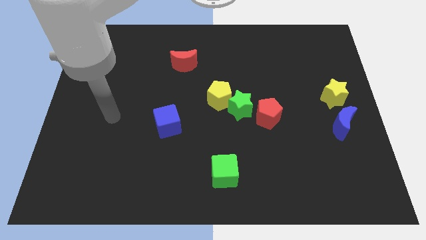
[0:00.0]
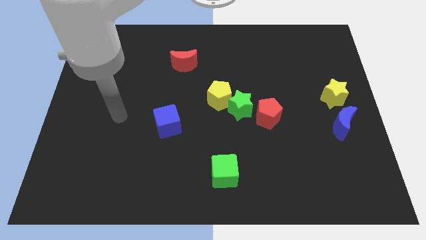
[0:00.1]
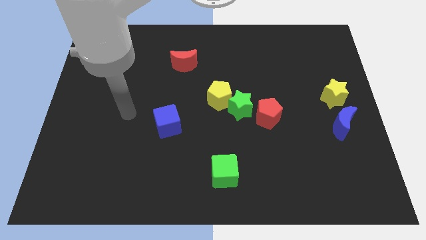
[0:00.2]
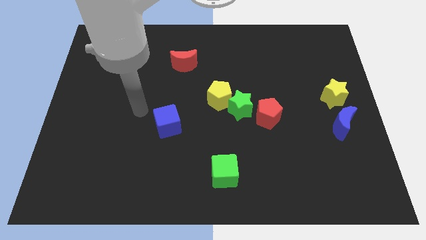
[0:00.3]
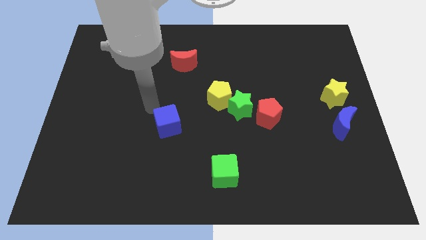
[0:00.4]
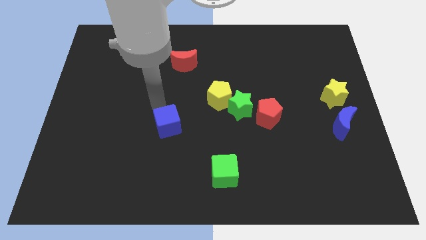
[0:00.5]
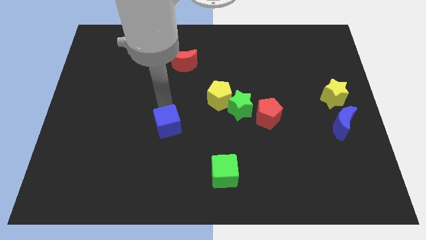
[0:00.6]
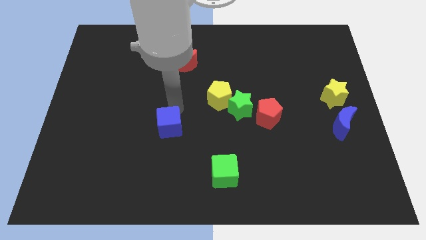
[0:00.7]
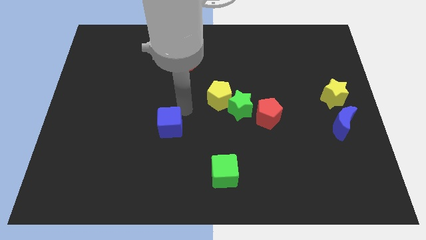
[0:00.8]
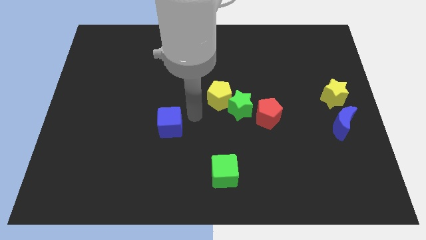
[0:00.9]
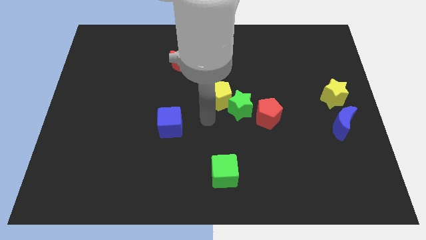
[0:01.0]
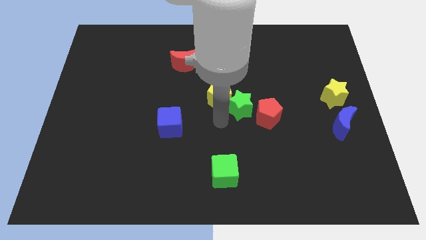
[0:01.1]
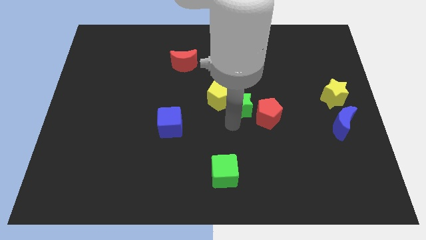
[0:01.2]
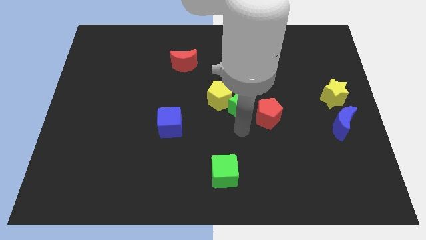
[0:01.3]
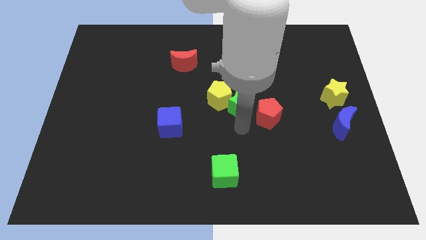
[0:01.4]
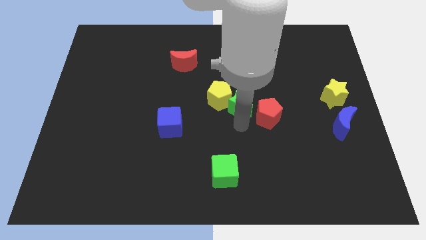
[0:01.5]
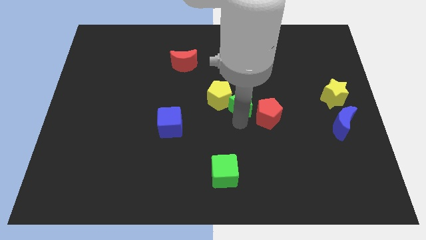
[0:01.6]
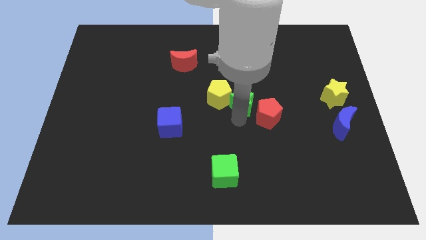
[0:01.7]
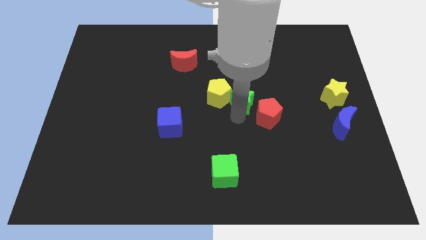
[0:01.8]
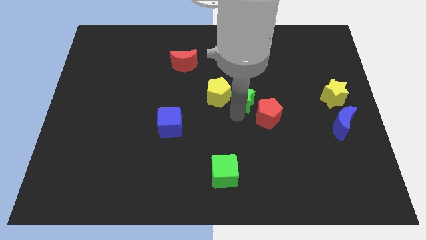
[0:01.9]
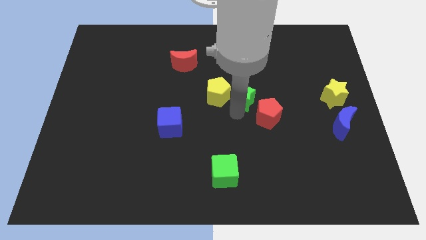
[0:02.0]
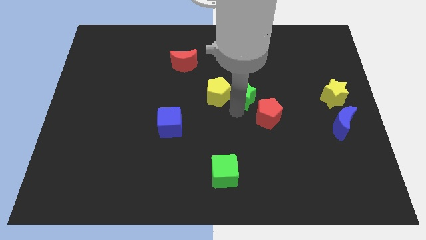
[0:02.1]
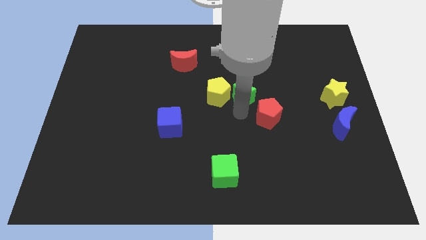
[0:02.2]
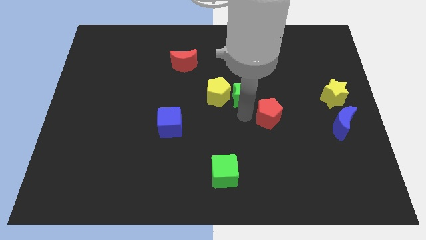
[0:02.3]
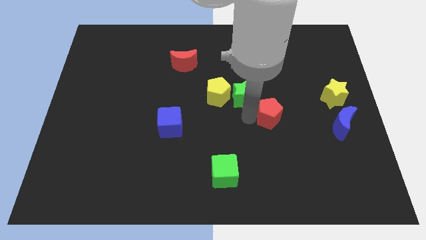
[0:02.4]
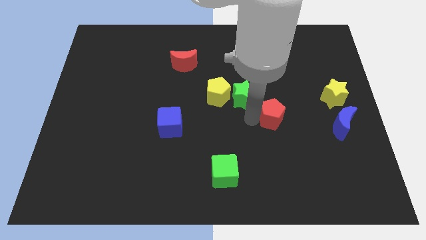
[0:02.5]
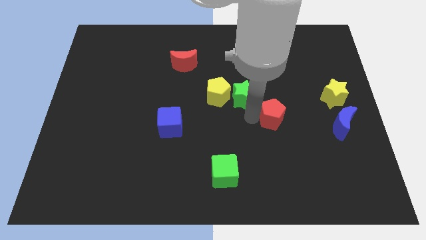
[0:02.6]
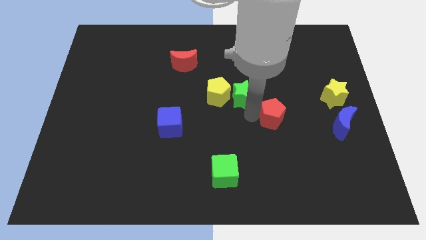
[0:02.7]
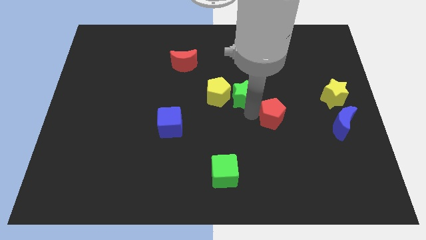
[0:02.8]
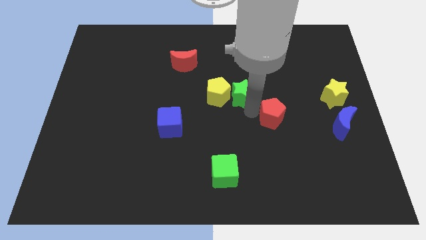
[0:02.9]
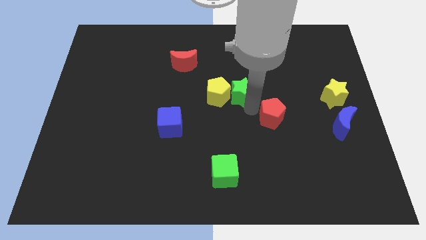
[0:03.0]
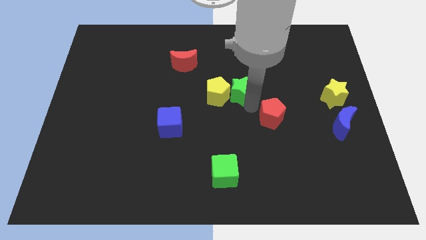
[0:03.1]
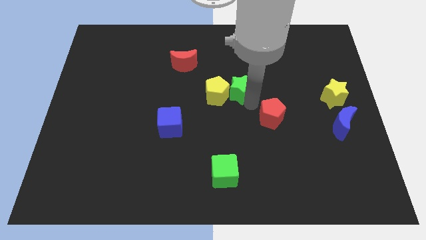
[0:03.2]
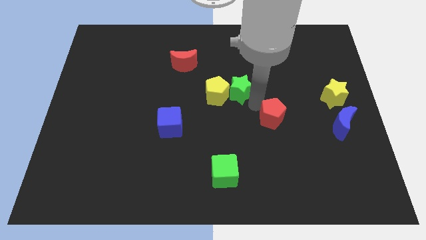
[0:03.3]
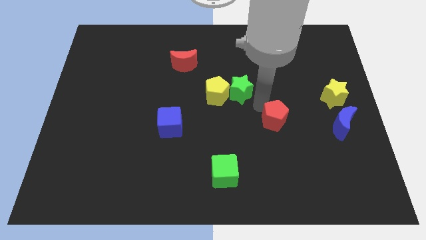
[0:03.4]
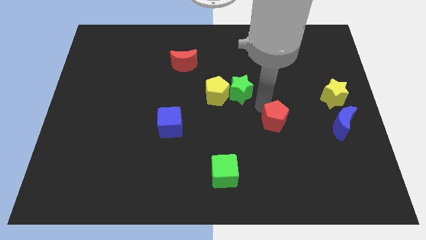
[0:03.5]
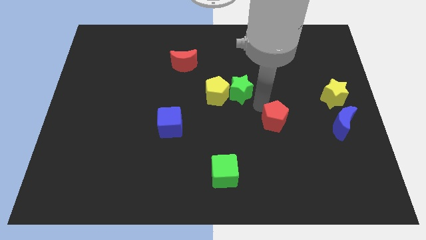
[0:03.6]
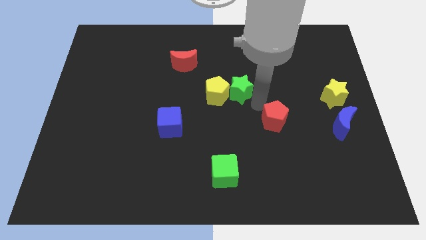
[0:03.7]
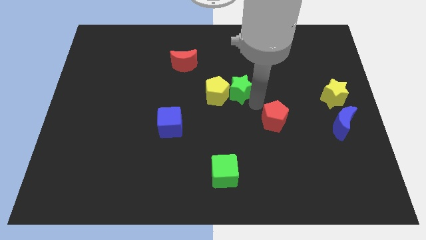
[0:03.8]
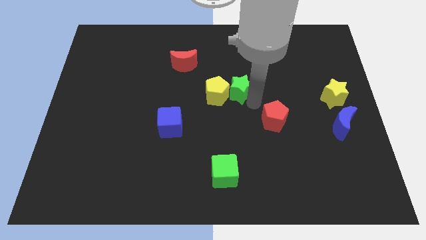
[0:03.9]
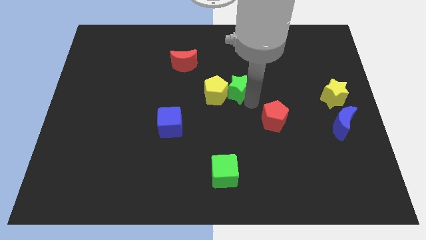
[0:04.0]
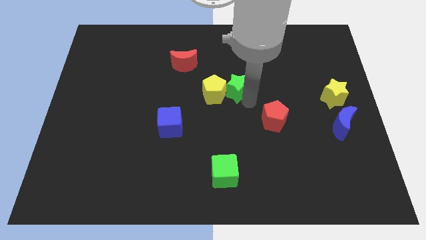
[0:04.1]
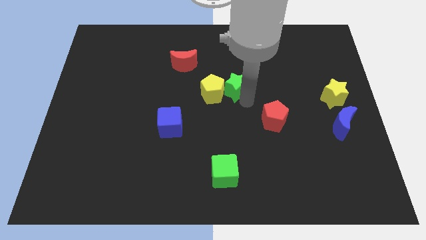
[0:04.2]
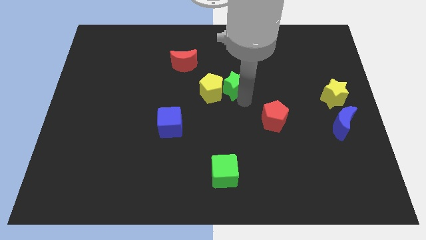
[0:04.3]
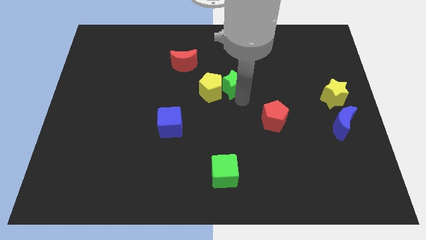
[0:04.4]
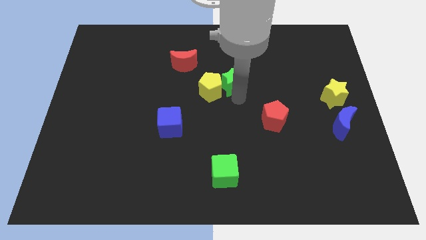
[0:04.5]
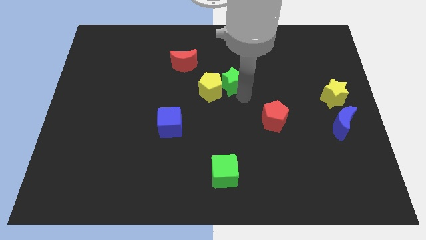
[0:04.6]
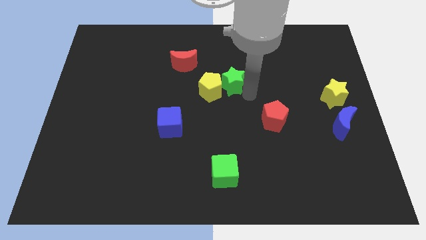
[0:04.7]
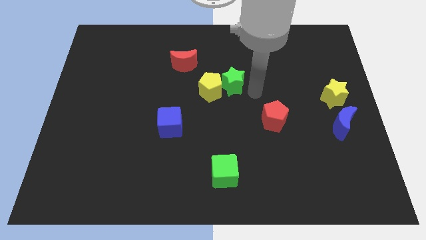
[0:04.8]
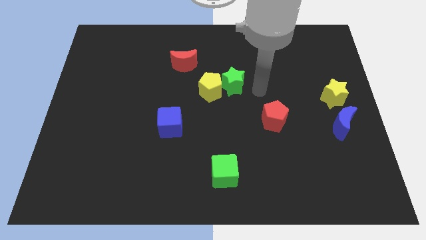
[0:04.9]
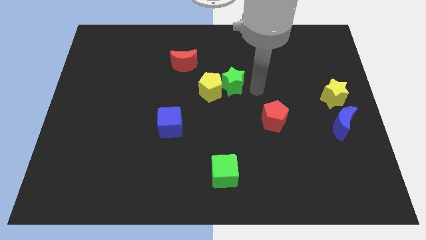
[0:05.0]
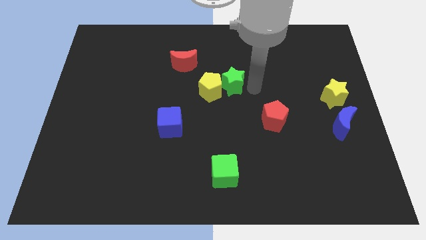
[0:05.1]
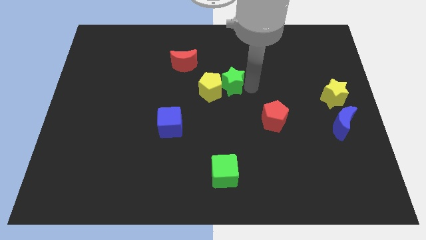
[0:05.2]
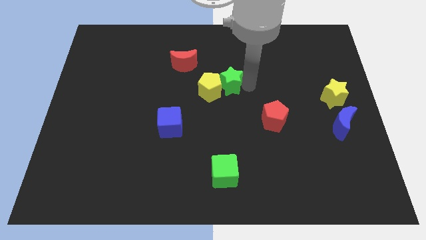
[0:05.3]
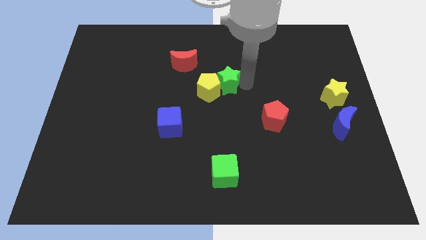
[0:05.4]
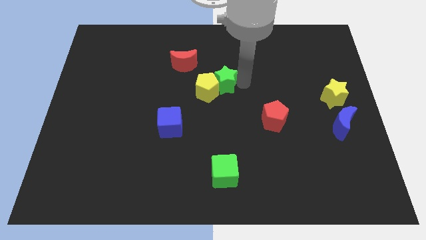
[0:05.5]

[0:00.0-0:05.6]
put the green star diagonally down and to the right of the red moon

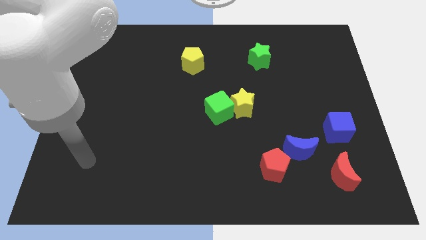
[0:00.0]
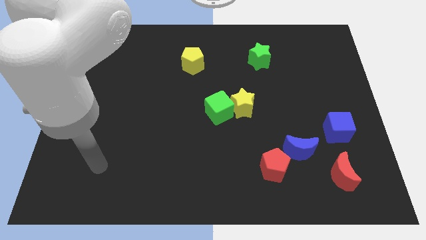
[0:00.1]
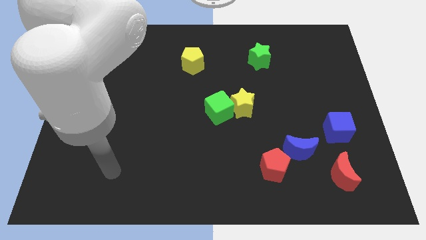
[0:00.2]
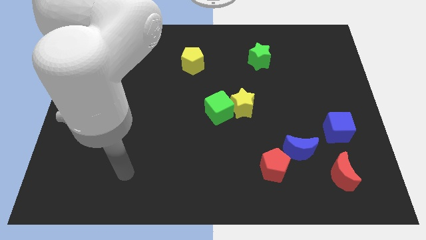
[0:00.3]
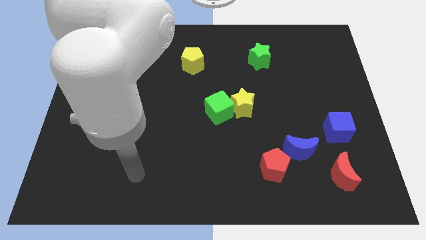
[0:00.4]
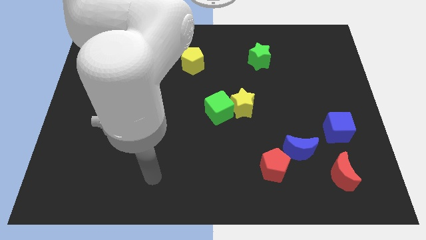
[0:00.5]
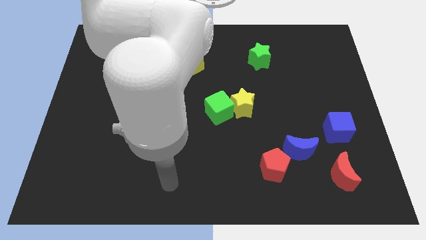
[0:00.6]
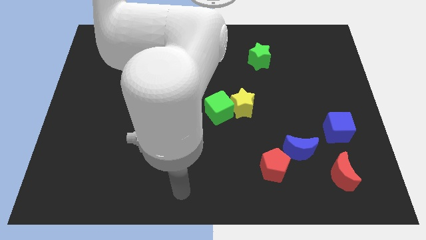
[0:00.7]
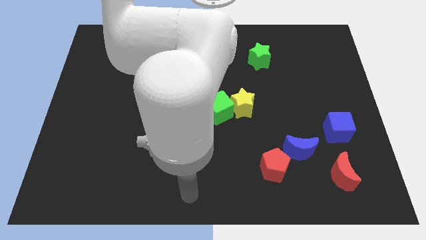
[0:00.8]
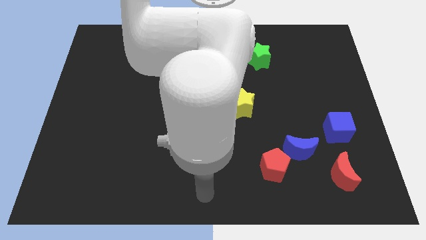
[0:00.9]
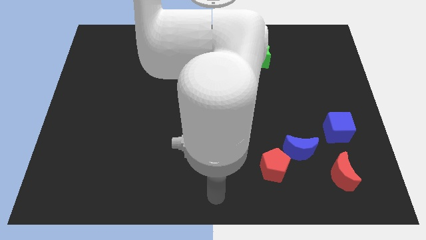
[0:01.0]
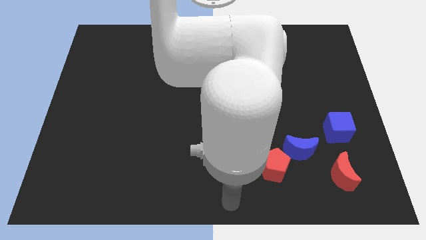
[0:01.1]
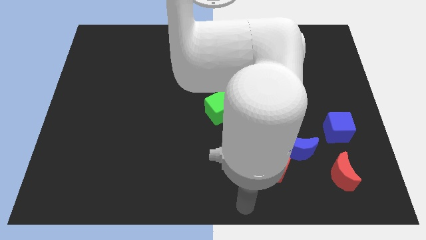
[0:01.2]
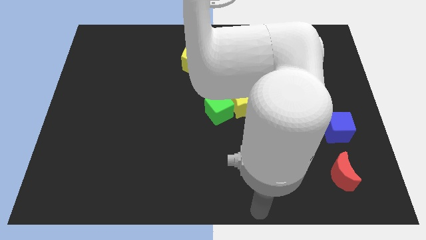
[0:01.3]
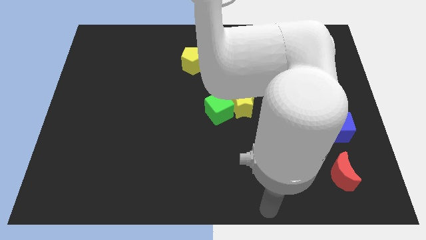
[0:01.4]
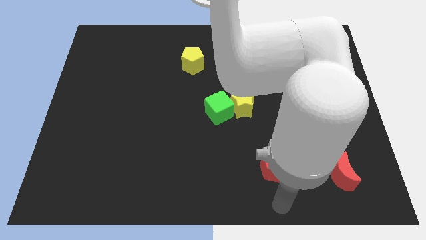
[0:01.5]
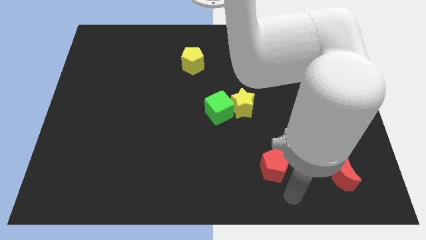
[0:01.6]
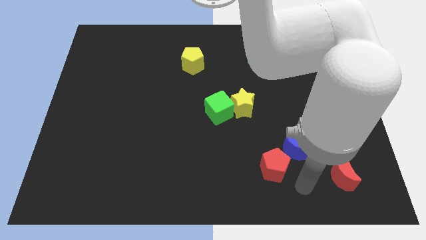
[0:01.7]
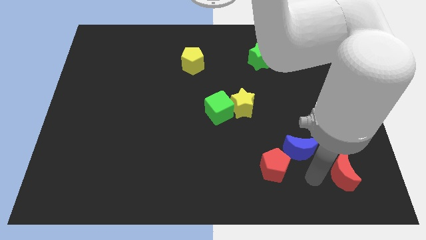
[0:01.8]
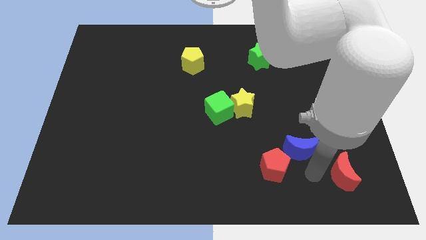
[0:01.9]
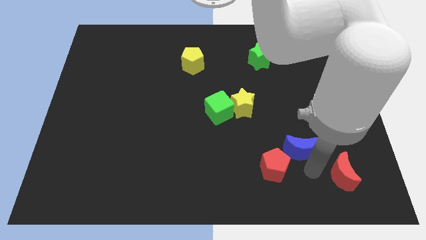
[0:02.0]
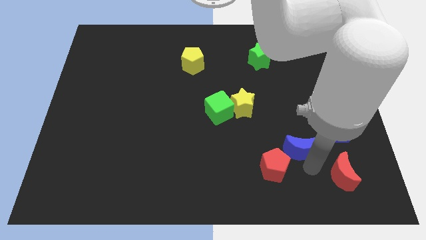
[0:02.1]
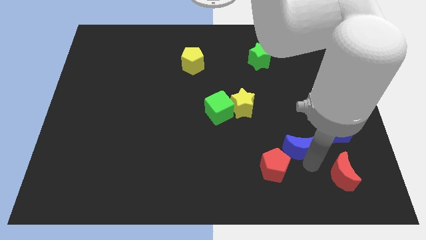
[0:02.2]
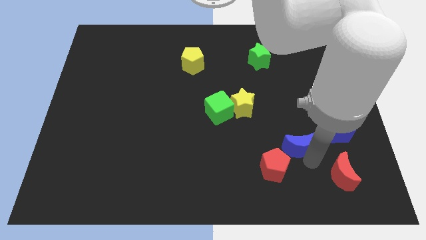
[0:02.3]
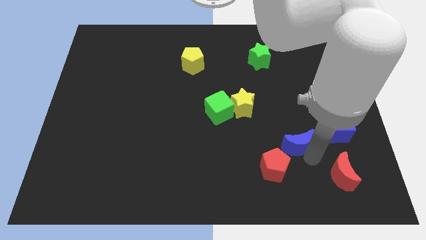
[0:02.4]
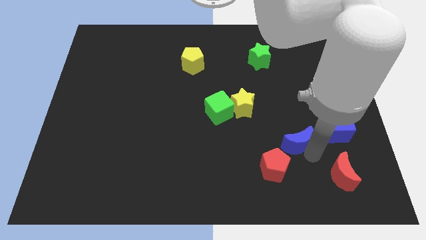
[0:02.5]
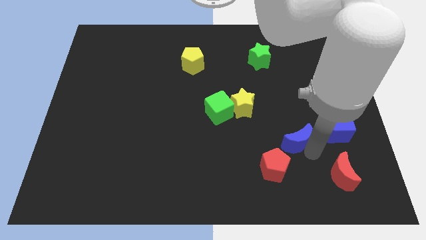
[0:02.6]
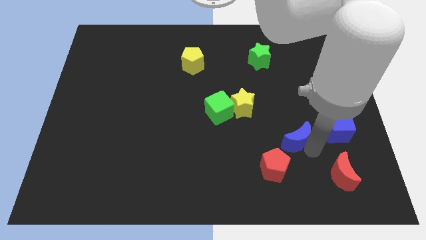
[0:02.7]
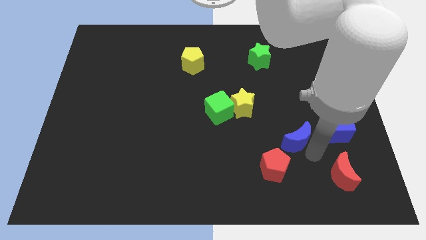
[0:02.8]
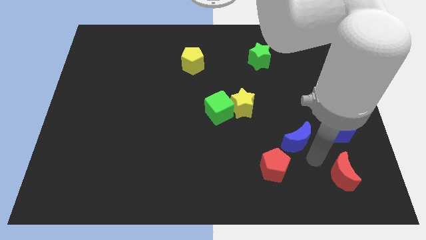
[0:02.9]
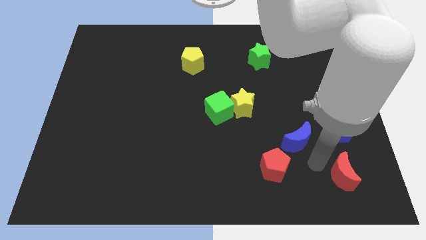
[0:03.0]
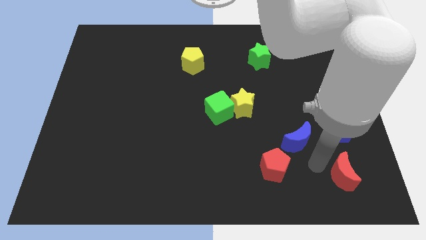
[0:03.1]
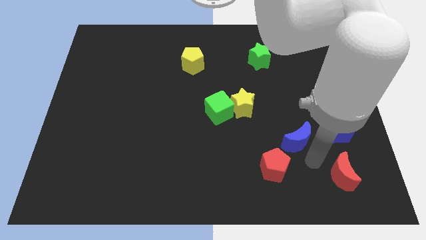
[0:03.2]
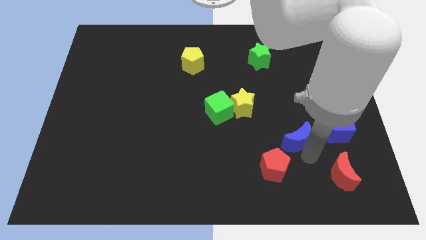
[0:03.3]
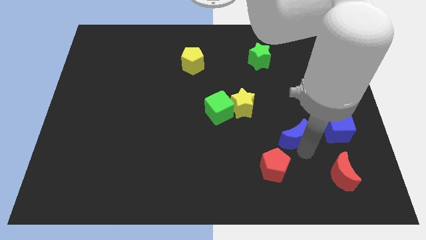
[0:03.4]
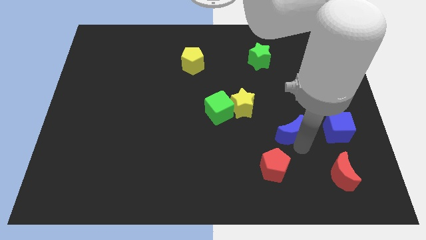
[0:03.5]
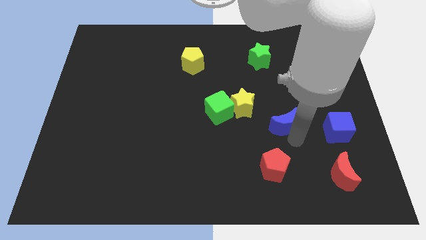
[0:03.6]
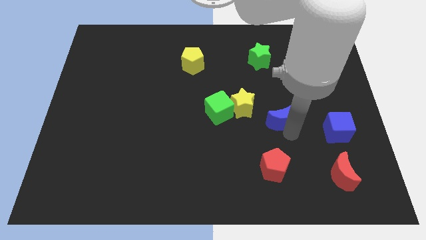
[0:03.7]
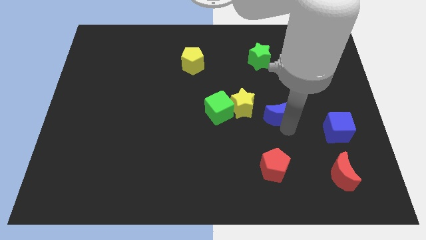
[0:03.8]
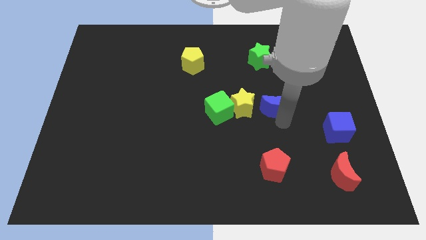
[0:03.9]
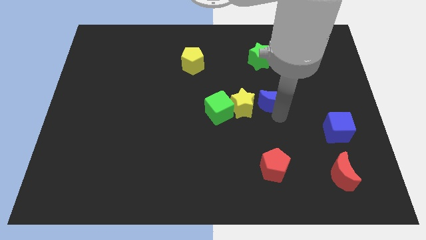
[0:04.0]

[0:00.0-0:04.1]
slide the blue moon diagonally up and to the right of the yellow star
